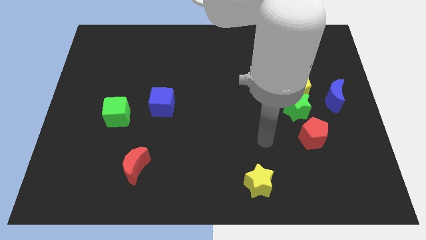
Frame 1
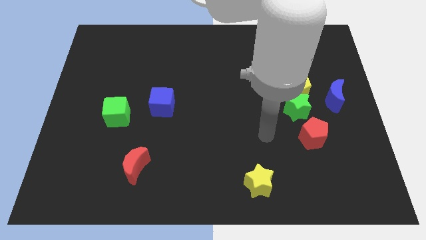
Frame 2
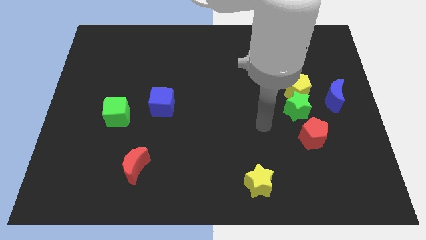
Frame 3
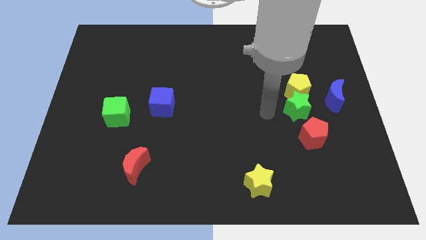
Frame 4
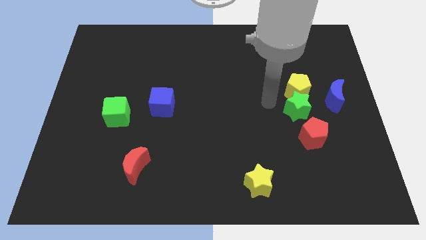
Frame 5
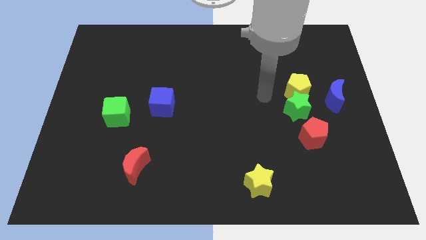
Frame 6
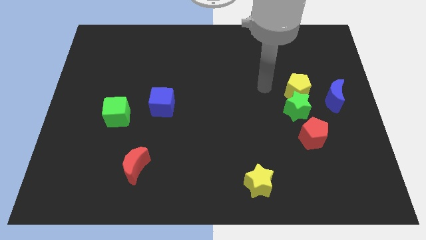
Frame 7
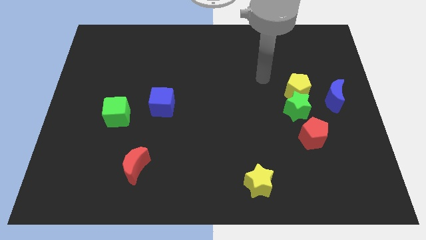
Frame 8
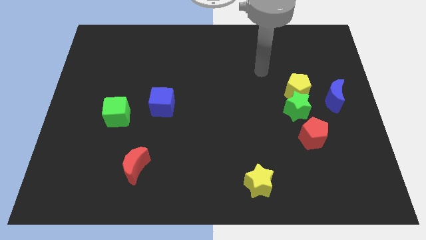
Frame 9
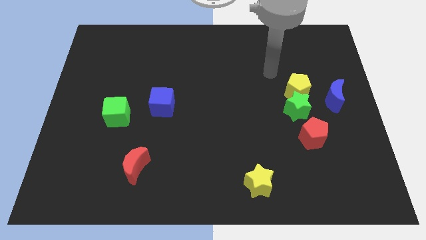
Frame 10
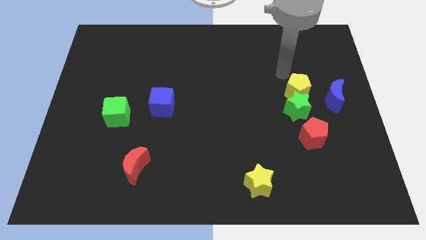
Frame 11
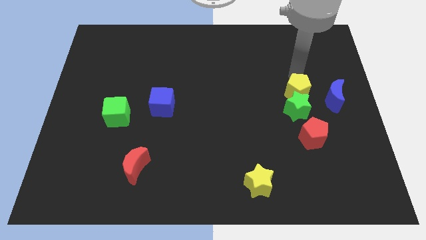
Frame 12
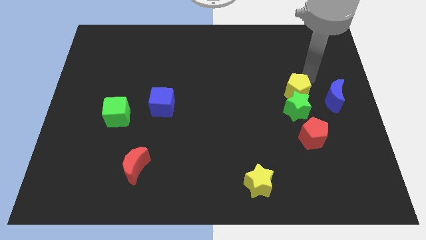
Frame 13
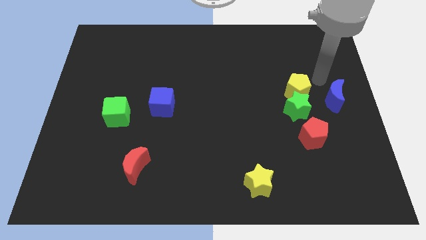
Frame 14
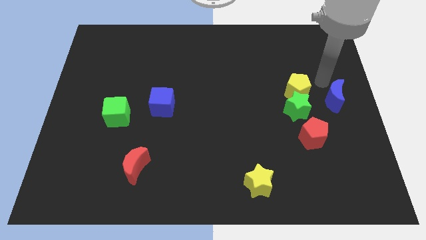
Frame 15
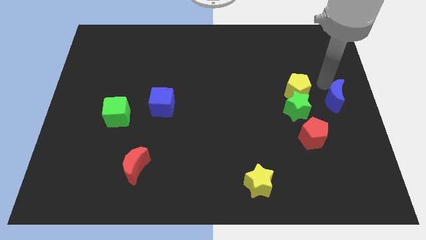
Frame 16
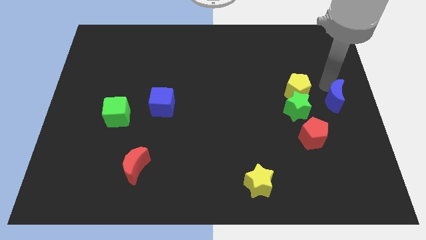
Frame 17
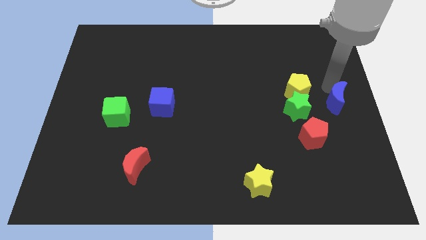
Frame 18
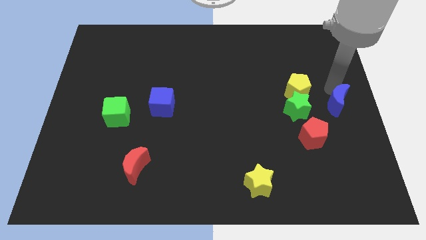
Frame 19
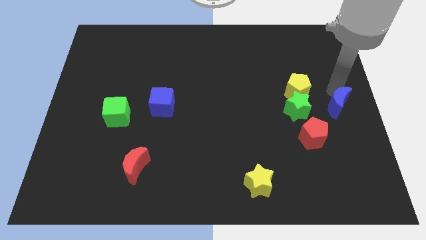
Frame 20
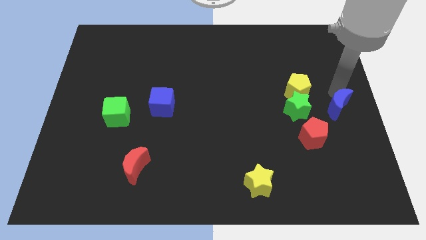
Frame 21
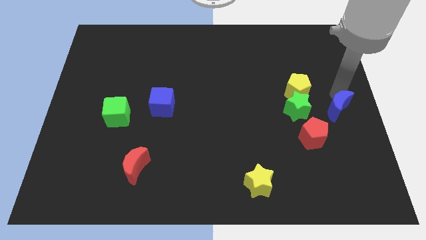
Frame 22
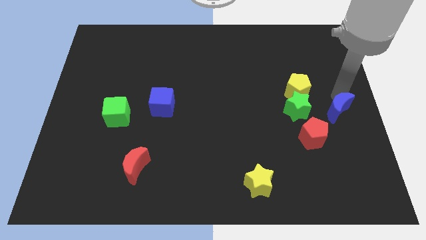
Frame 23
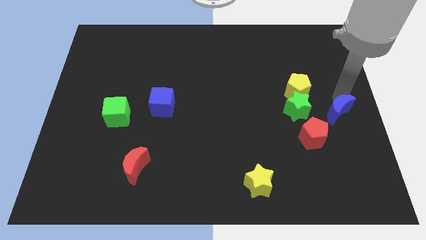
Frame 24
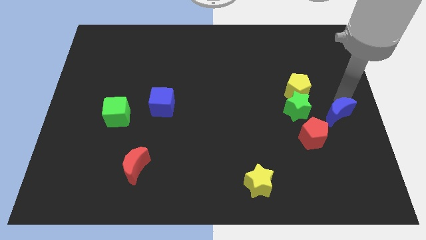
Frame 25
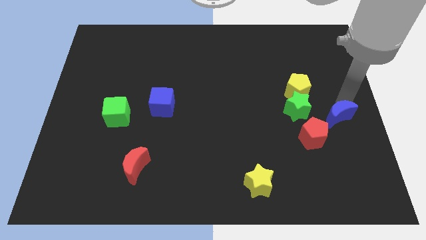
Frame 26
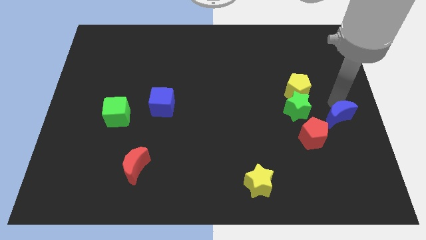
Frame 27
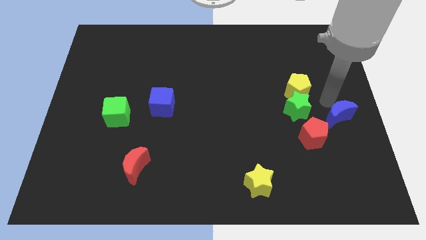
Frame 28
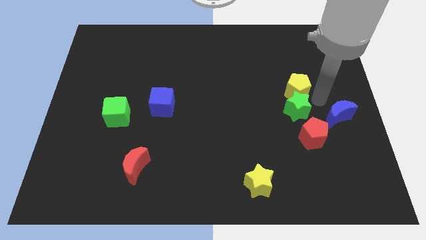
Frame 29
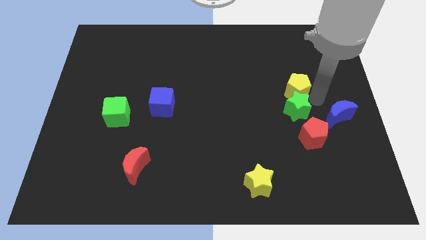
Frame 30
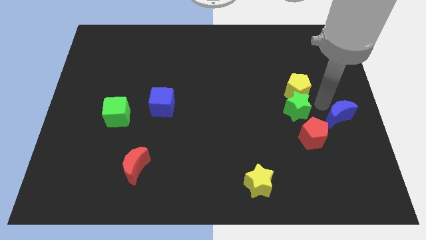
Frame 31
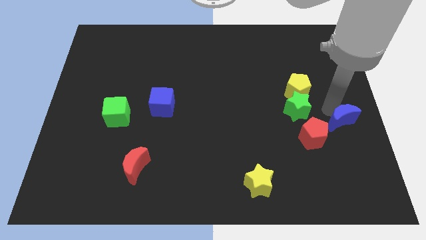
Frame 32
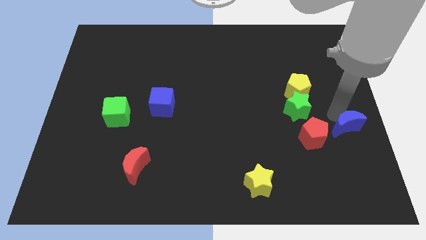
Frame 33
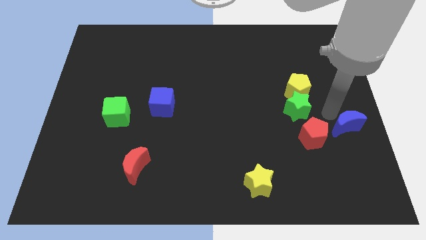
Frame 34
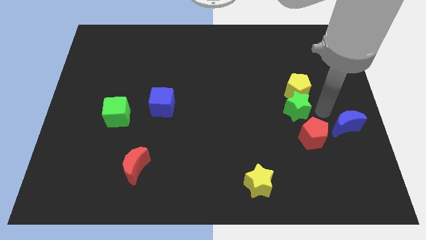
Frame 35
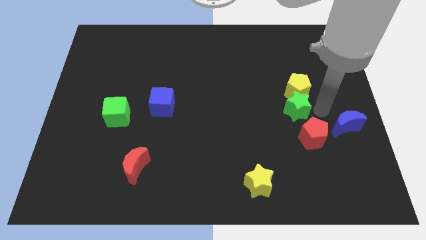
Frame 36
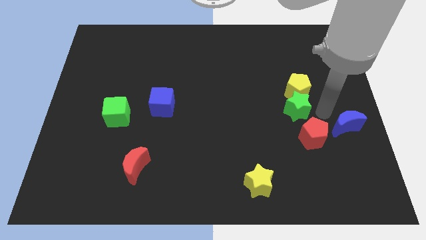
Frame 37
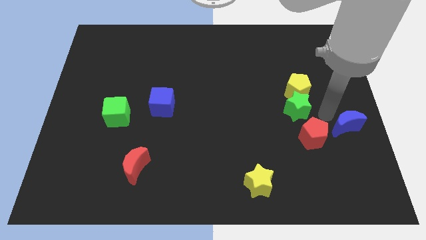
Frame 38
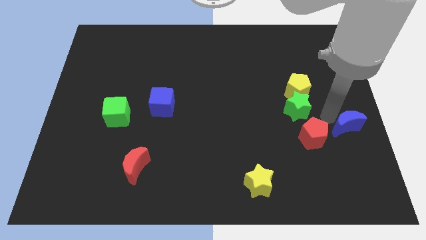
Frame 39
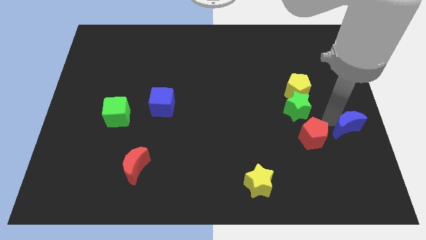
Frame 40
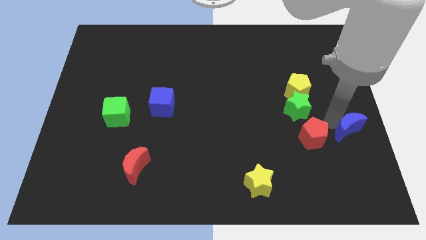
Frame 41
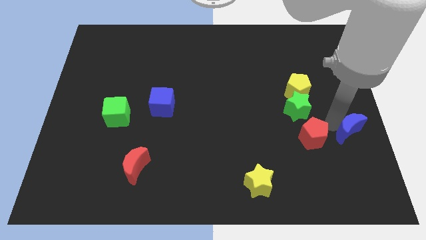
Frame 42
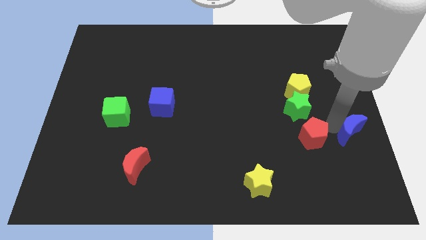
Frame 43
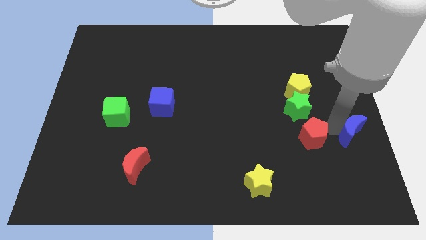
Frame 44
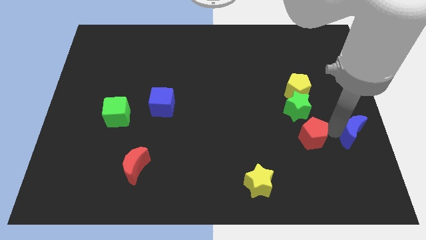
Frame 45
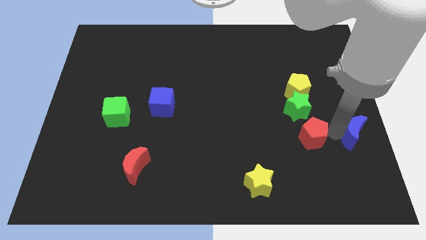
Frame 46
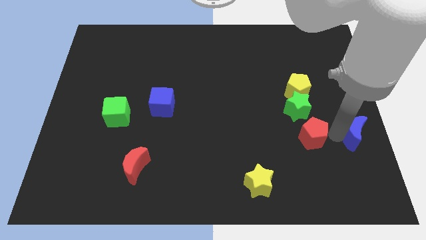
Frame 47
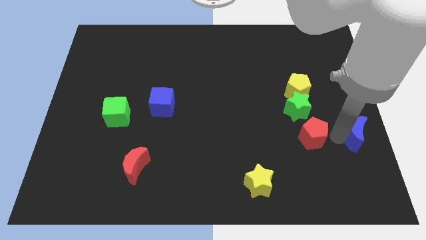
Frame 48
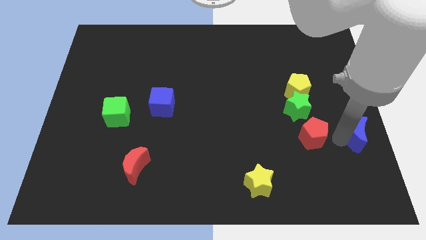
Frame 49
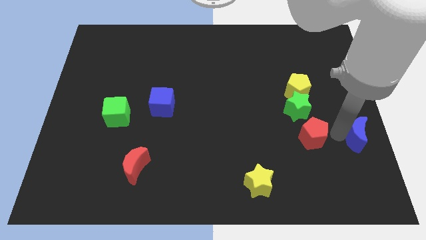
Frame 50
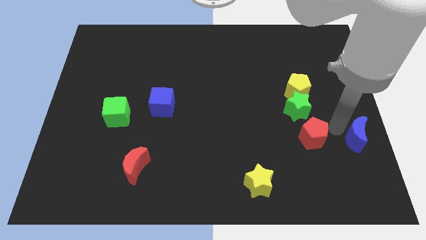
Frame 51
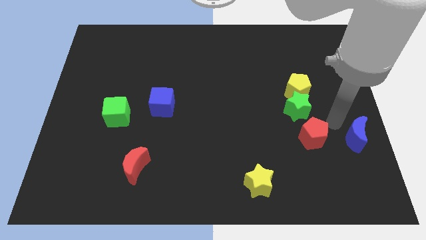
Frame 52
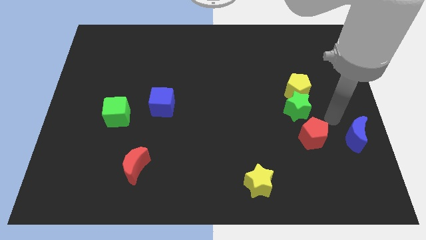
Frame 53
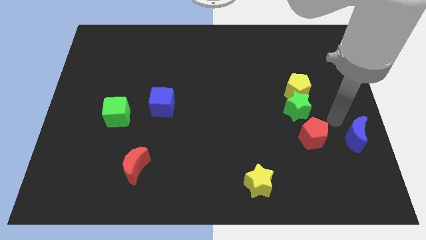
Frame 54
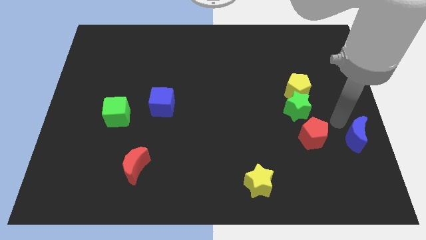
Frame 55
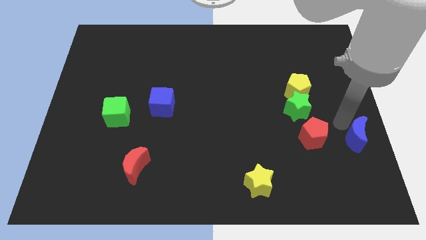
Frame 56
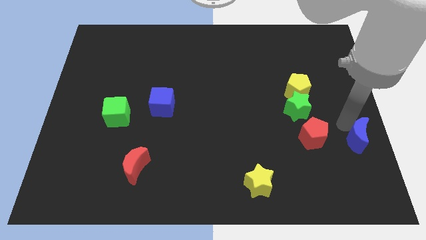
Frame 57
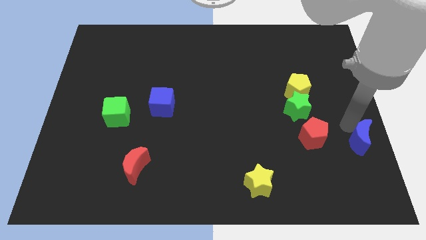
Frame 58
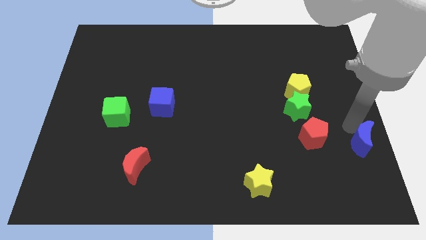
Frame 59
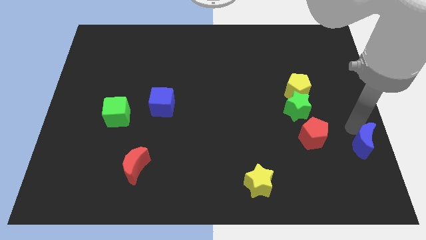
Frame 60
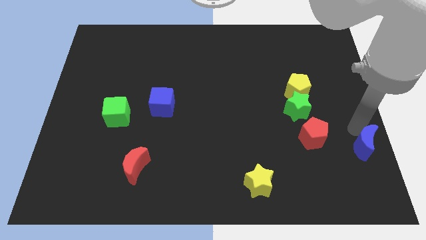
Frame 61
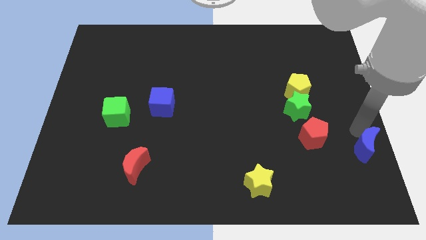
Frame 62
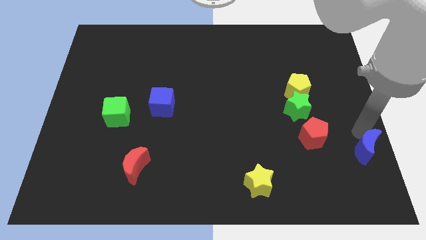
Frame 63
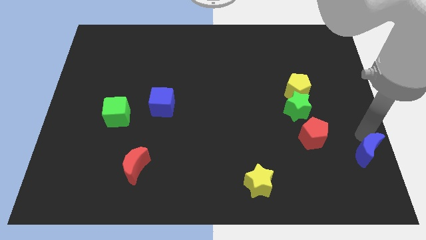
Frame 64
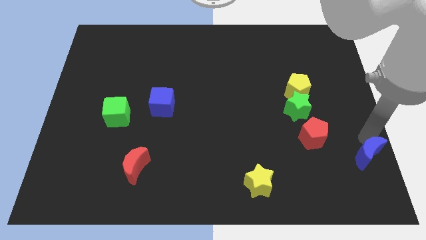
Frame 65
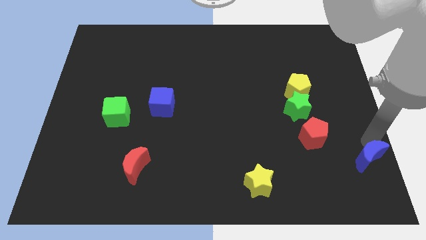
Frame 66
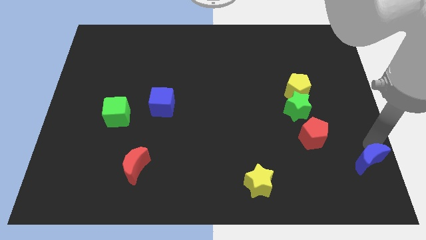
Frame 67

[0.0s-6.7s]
put the blue moon to the bottom right of the board
